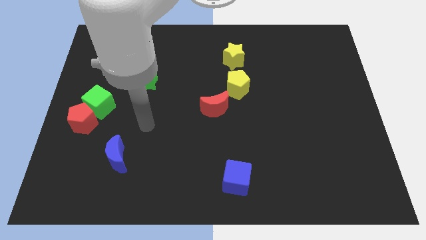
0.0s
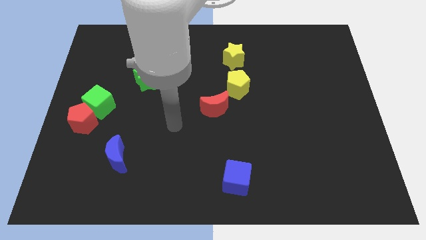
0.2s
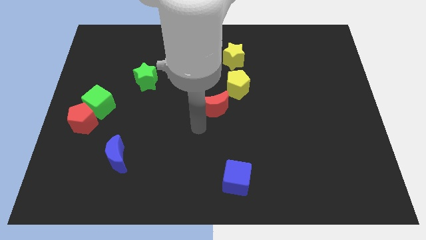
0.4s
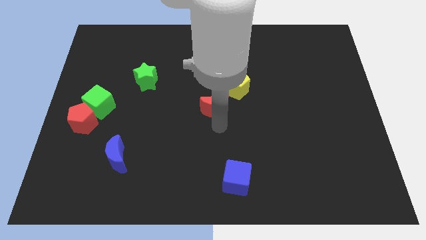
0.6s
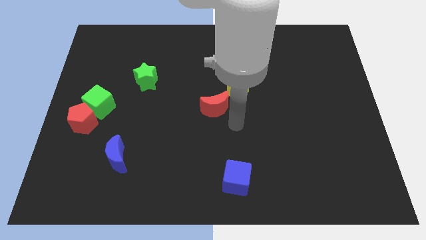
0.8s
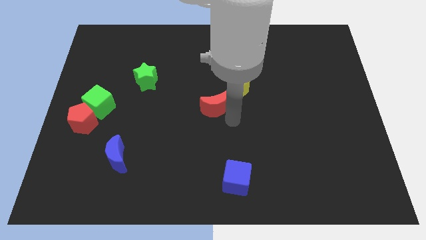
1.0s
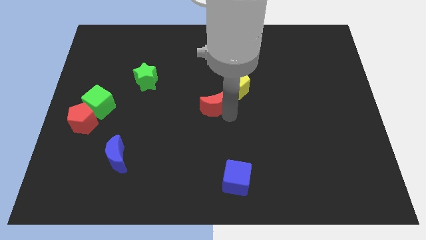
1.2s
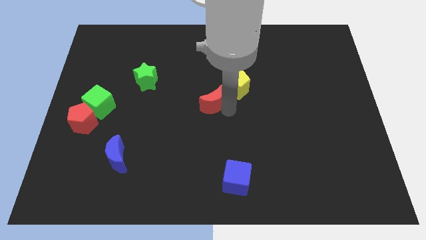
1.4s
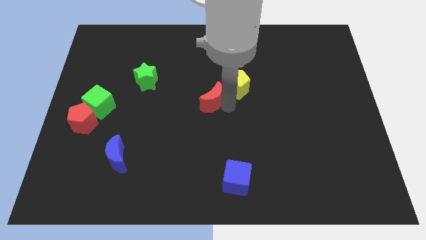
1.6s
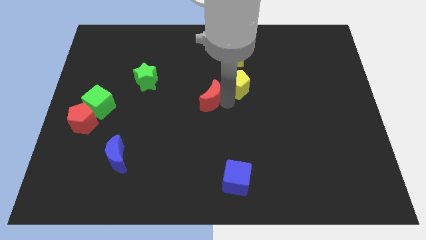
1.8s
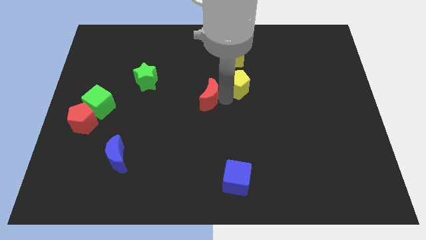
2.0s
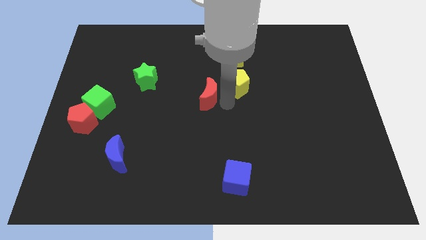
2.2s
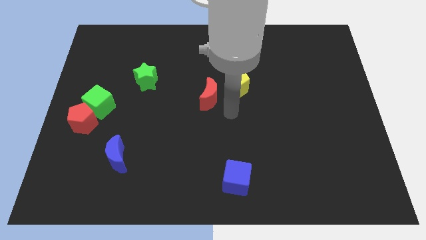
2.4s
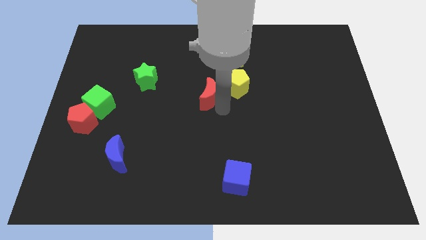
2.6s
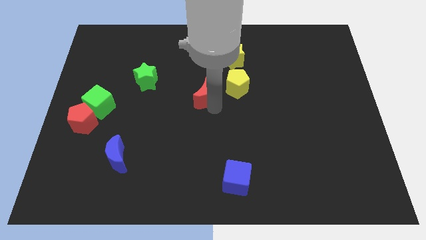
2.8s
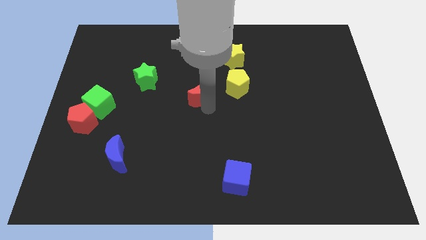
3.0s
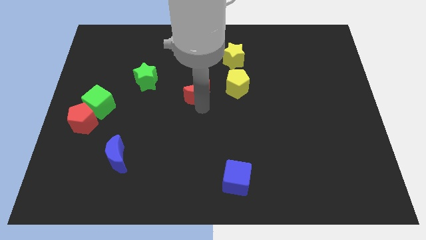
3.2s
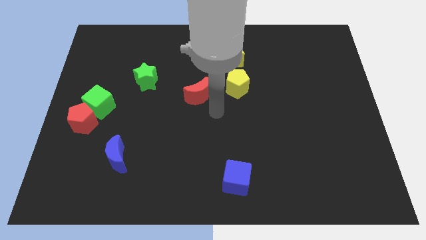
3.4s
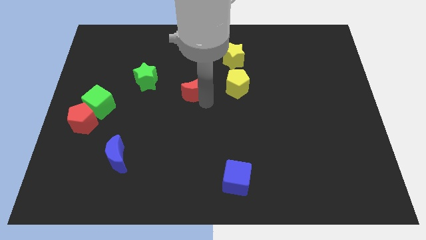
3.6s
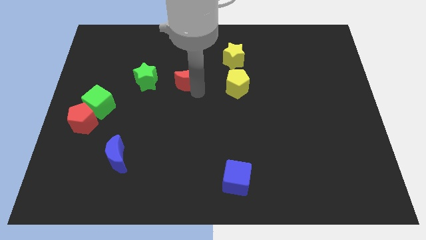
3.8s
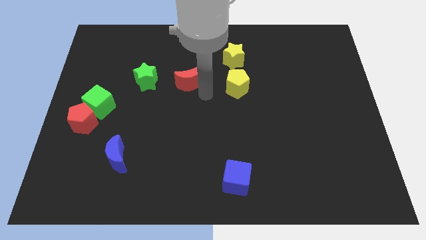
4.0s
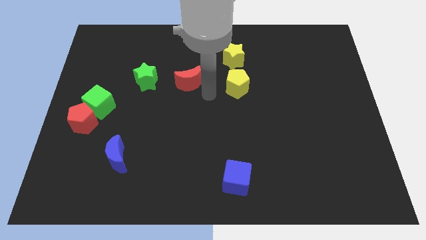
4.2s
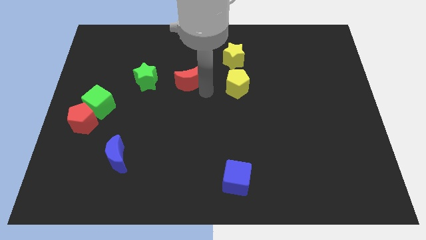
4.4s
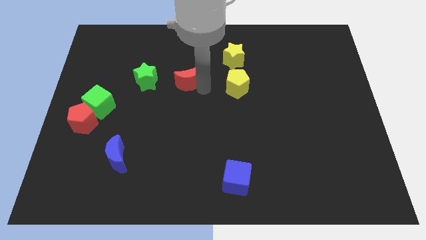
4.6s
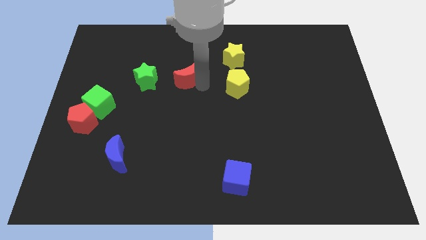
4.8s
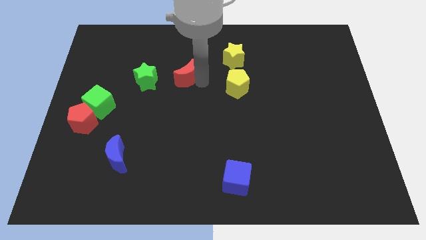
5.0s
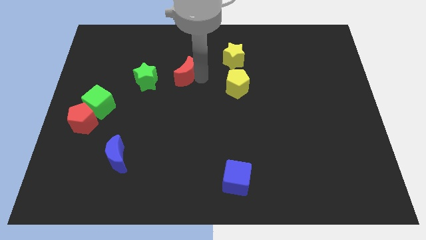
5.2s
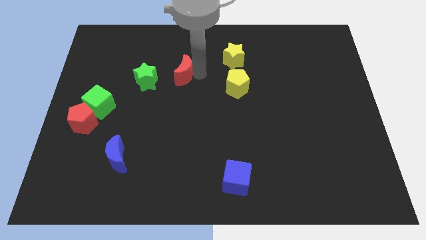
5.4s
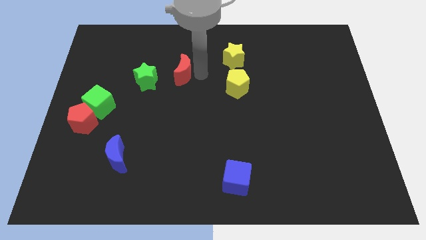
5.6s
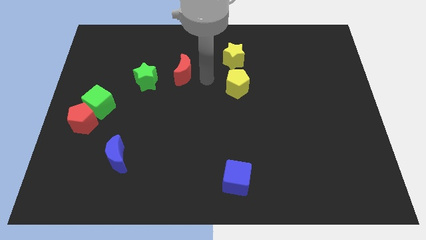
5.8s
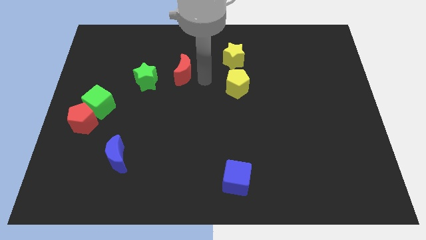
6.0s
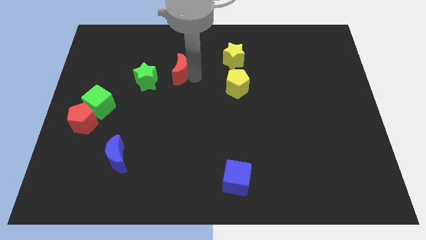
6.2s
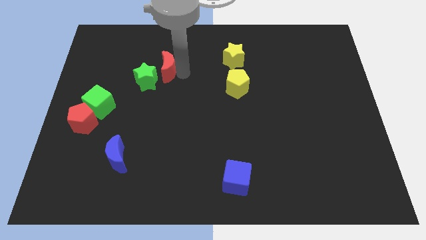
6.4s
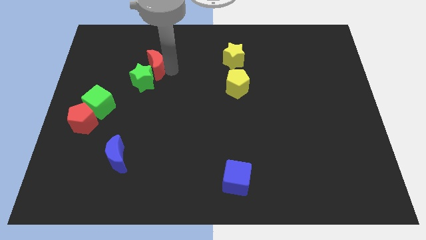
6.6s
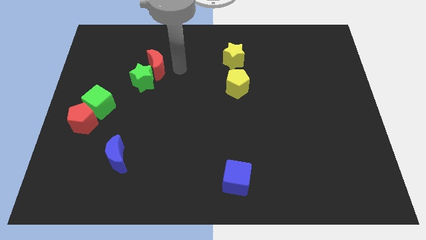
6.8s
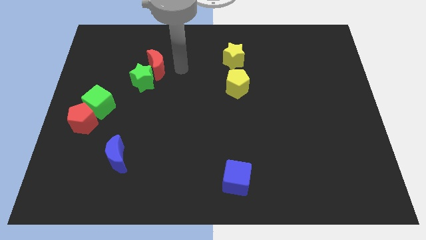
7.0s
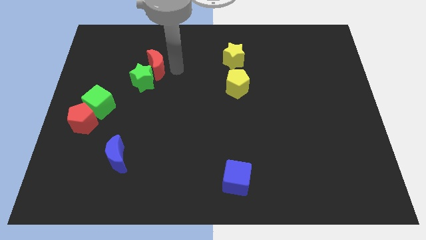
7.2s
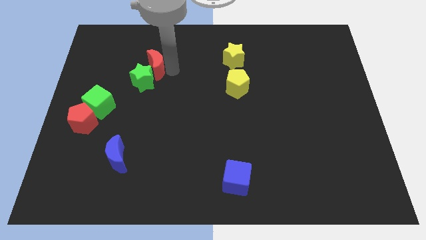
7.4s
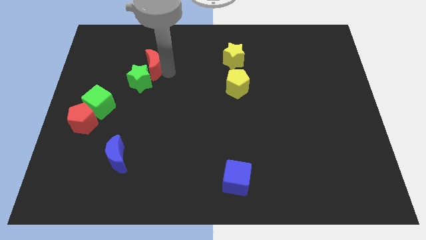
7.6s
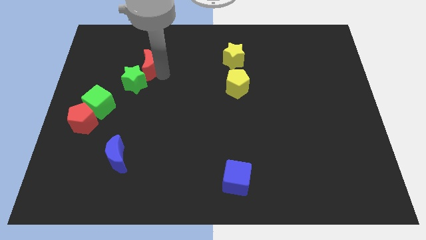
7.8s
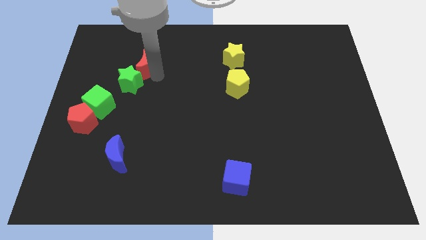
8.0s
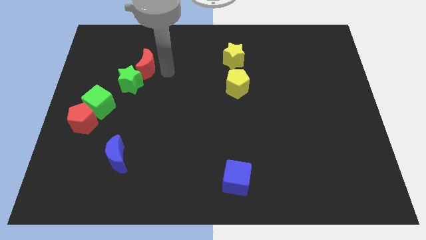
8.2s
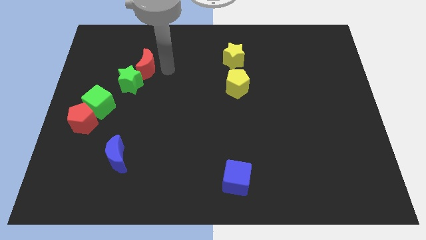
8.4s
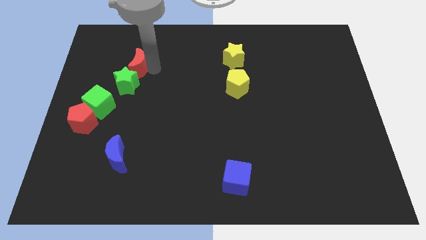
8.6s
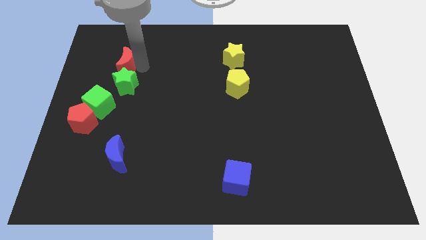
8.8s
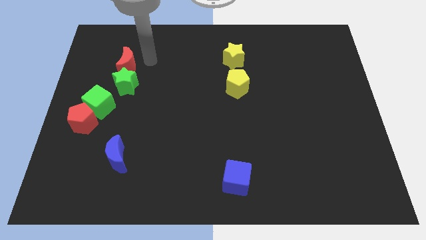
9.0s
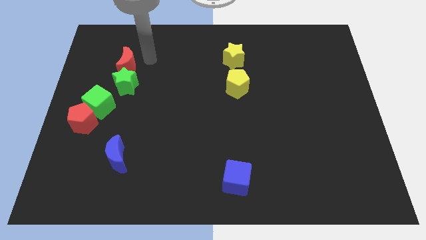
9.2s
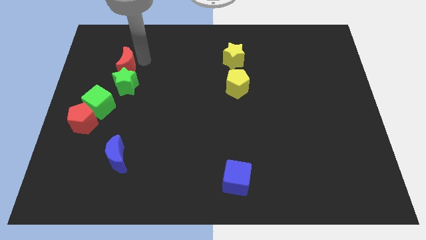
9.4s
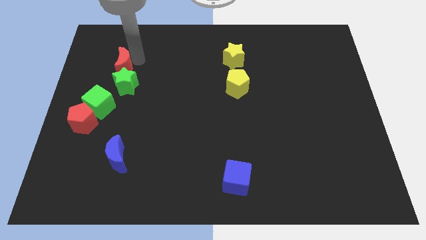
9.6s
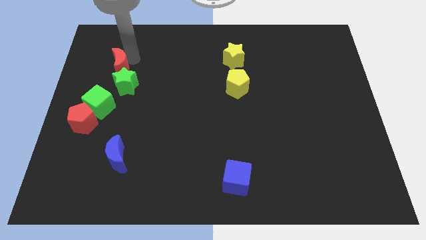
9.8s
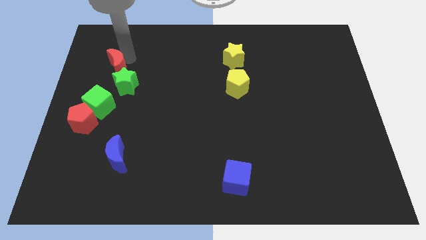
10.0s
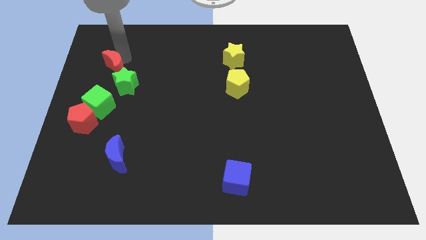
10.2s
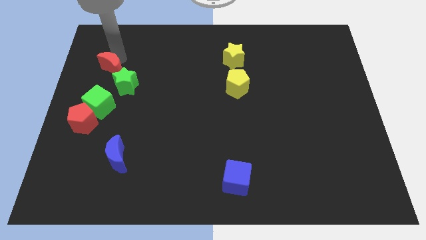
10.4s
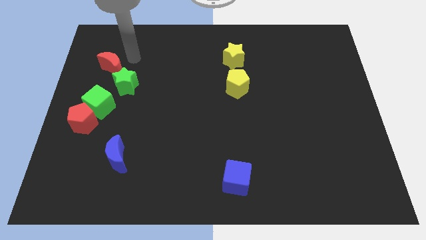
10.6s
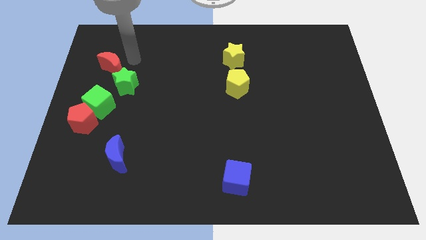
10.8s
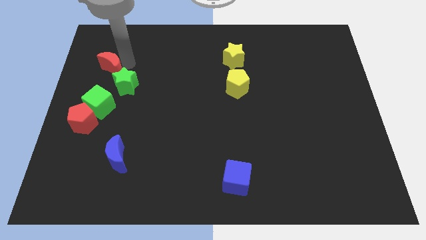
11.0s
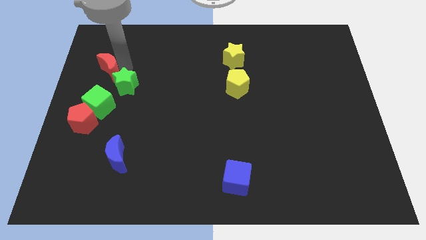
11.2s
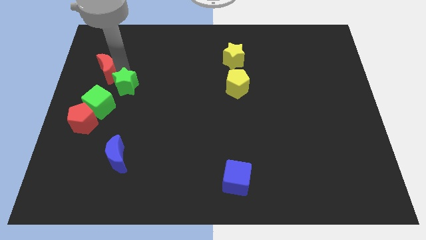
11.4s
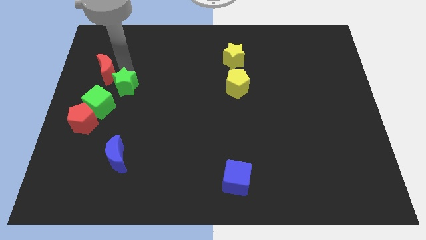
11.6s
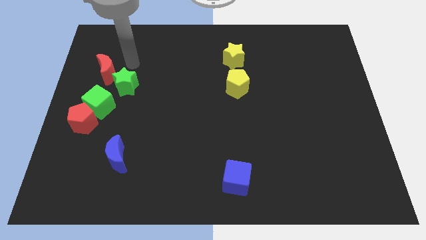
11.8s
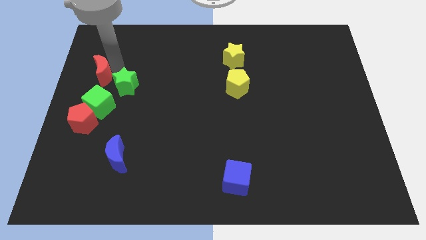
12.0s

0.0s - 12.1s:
put the red moon to the left side of the board
